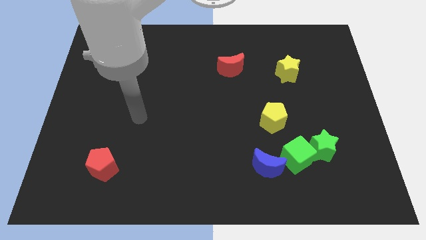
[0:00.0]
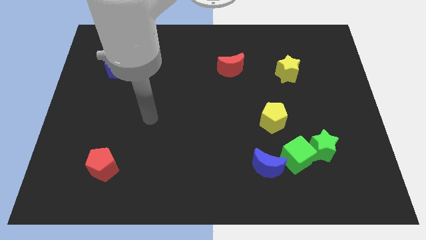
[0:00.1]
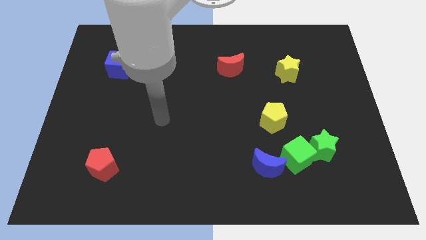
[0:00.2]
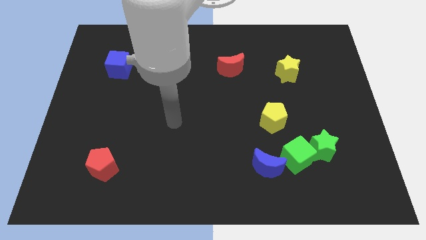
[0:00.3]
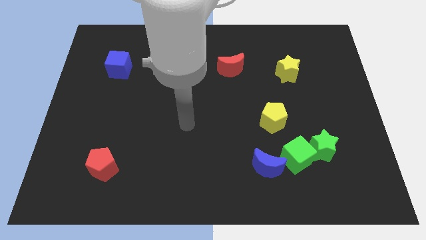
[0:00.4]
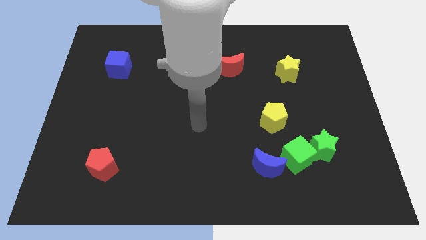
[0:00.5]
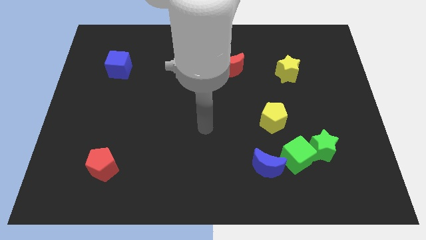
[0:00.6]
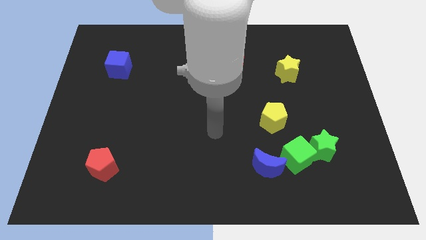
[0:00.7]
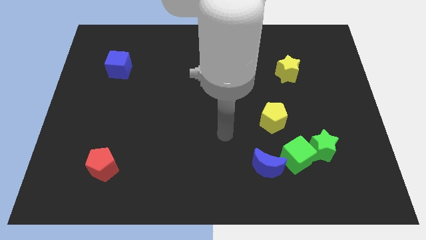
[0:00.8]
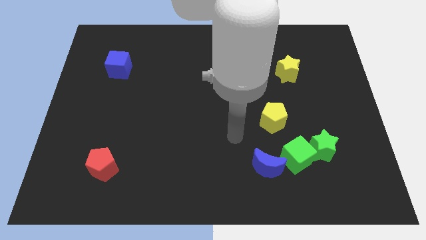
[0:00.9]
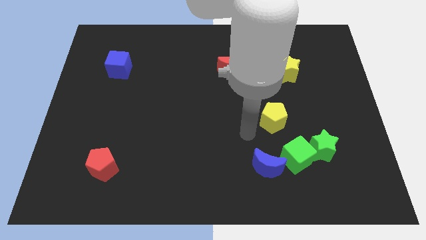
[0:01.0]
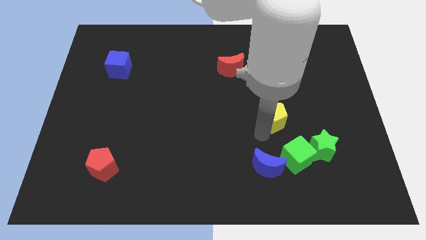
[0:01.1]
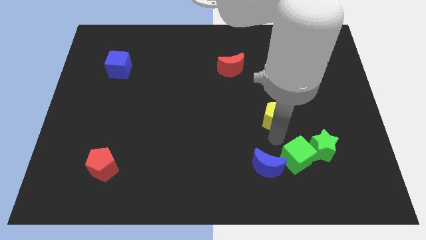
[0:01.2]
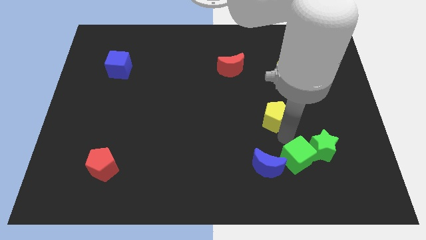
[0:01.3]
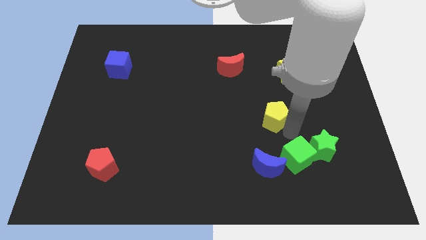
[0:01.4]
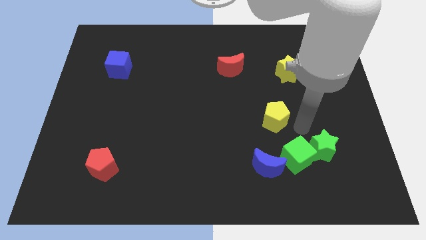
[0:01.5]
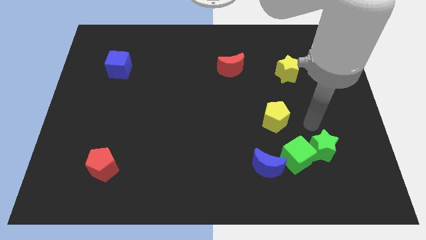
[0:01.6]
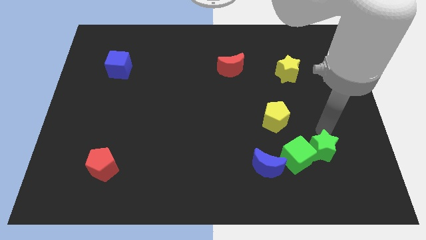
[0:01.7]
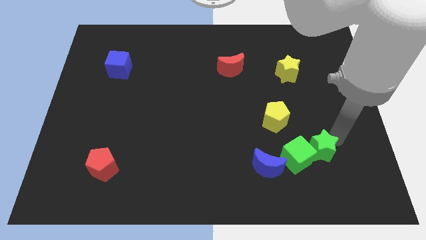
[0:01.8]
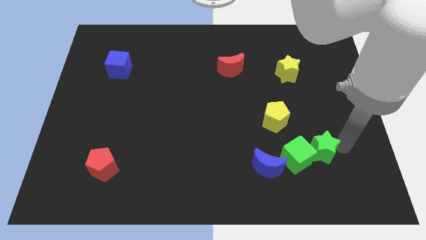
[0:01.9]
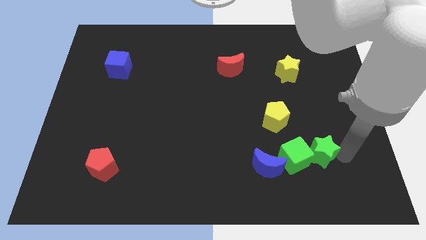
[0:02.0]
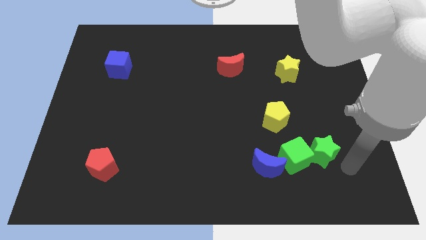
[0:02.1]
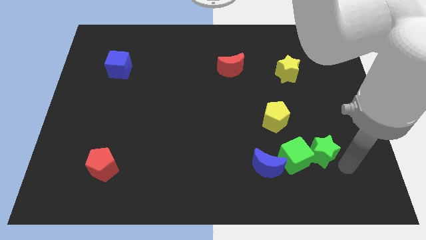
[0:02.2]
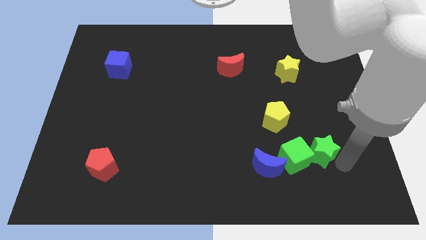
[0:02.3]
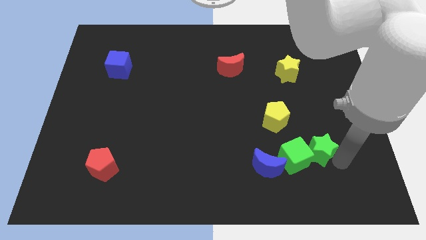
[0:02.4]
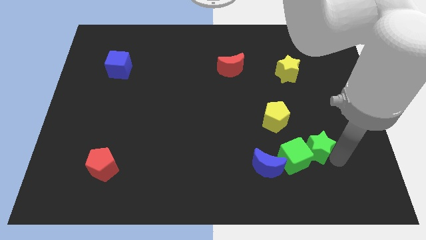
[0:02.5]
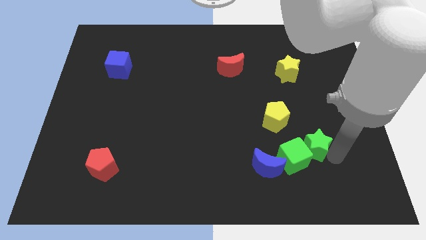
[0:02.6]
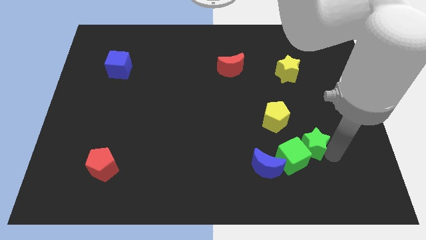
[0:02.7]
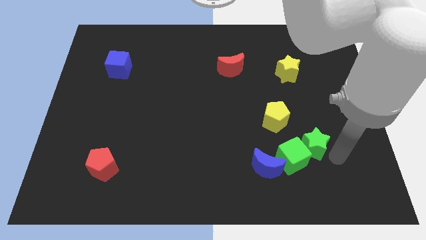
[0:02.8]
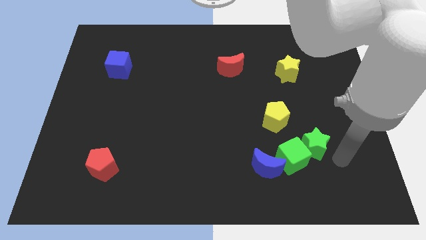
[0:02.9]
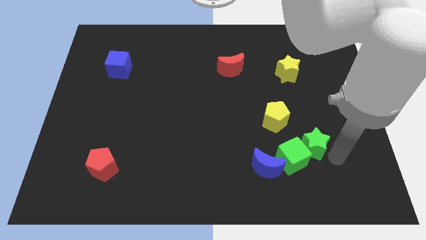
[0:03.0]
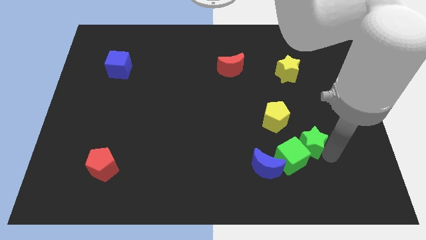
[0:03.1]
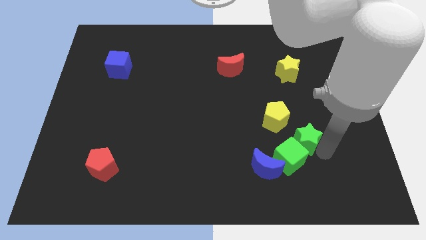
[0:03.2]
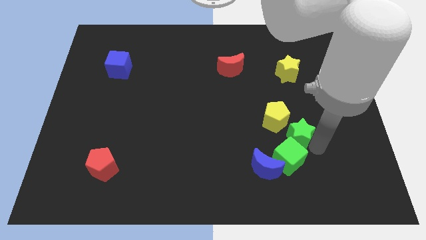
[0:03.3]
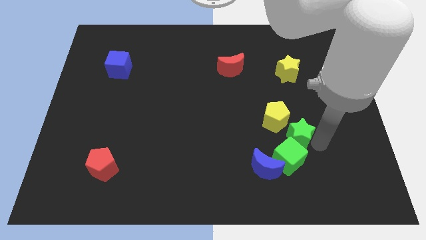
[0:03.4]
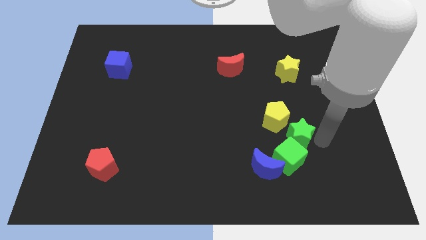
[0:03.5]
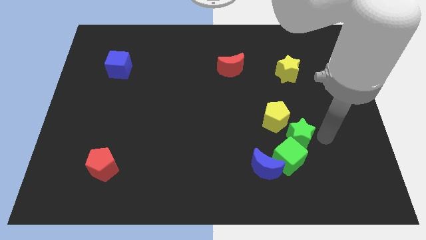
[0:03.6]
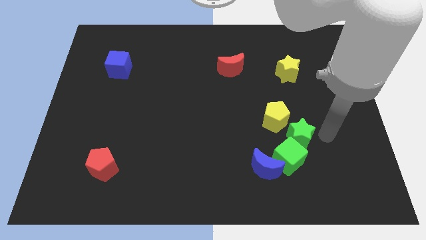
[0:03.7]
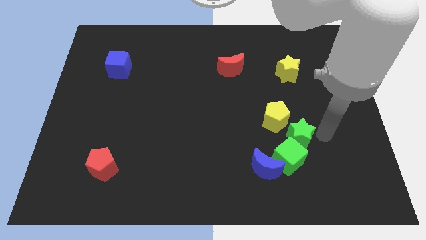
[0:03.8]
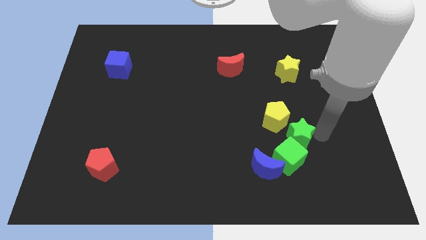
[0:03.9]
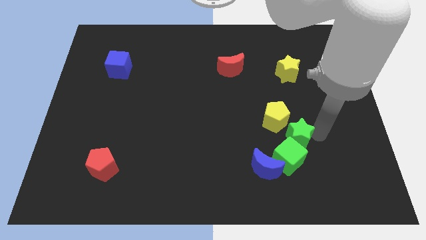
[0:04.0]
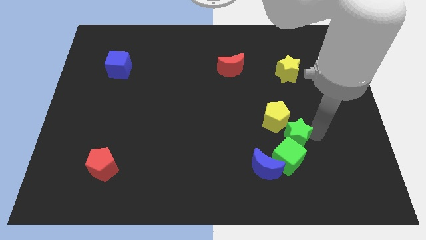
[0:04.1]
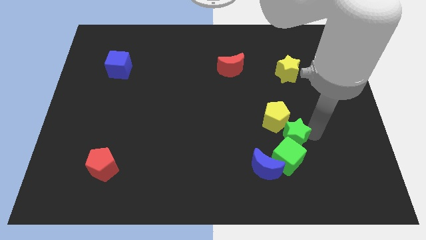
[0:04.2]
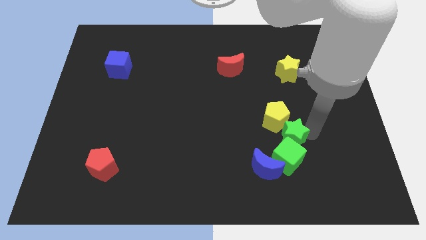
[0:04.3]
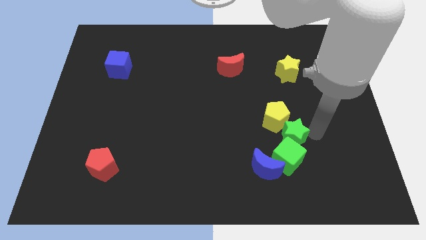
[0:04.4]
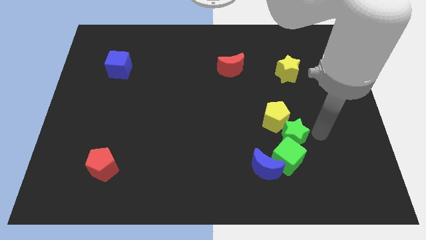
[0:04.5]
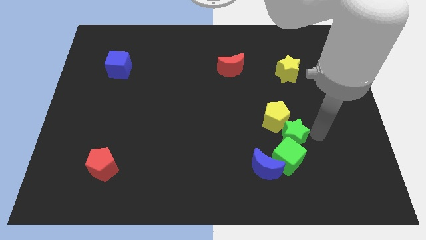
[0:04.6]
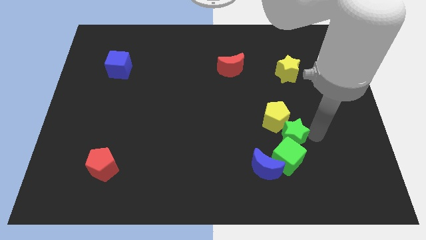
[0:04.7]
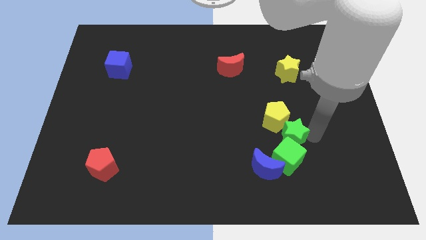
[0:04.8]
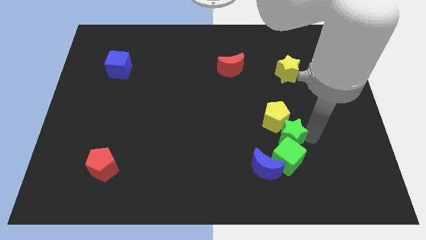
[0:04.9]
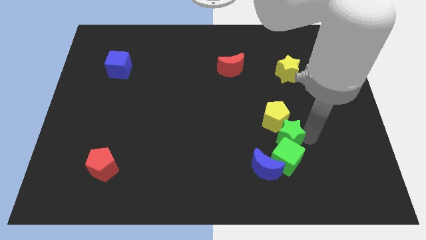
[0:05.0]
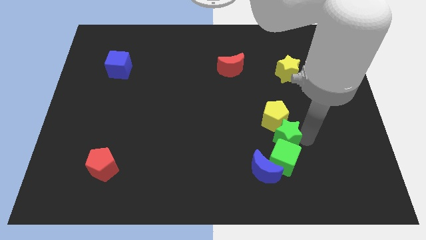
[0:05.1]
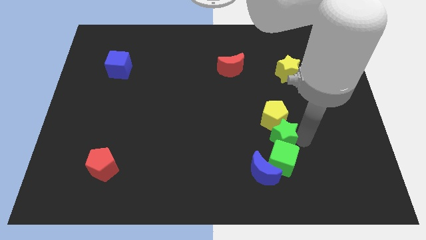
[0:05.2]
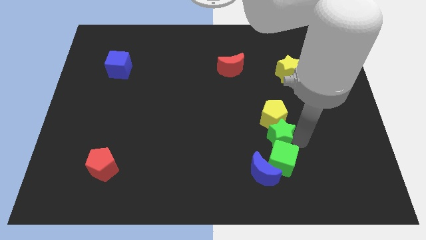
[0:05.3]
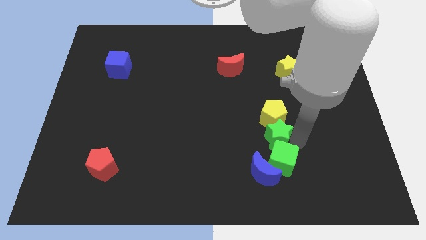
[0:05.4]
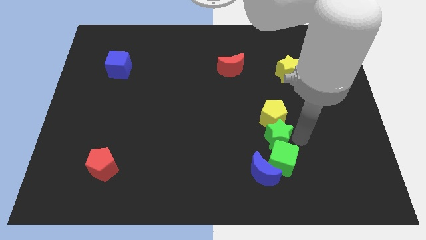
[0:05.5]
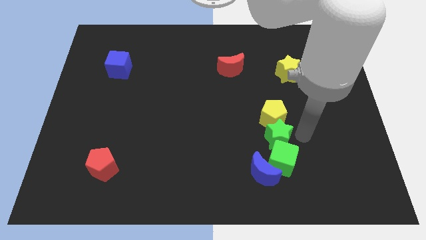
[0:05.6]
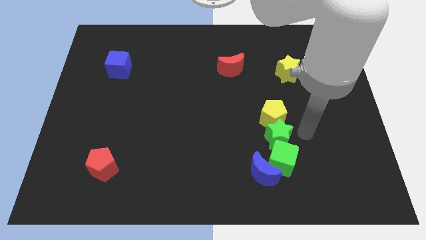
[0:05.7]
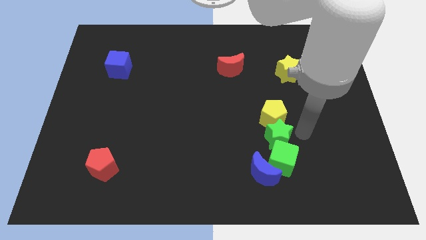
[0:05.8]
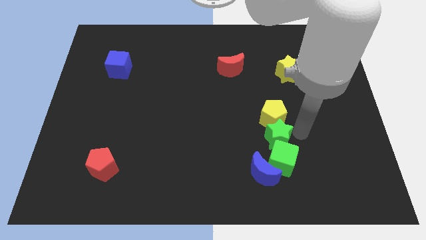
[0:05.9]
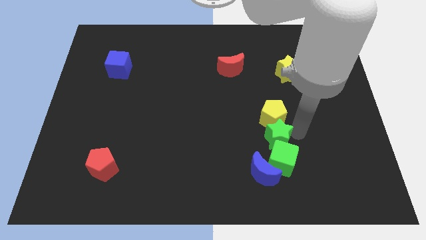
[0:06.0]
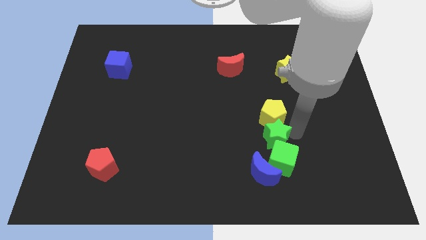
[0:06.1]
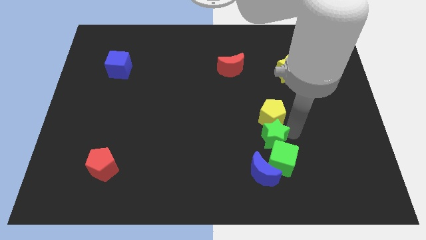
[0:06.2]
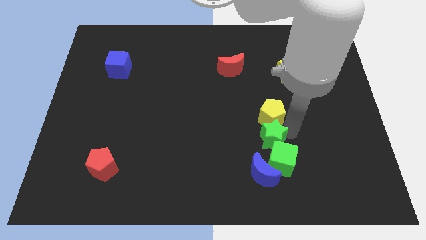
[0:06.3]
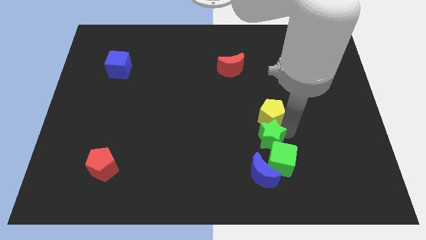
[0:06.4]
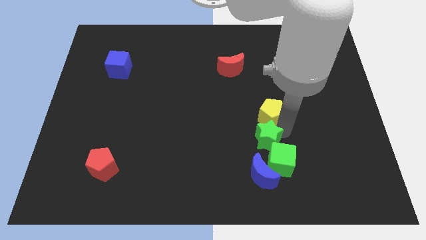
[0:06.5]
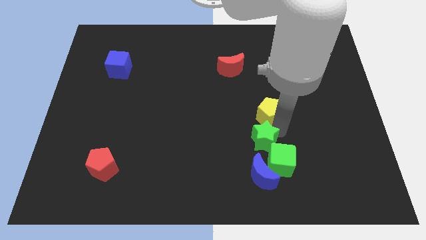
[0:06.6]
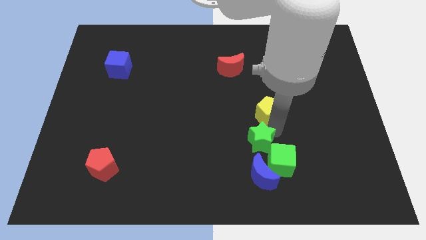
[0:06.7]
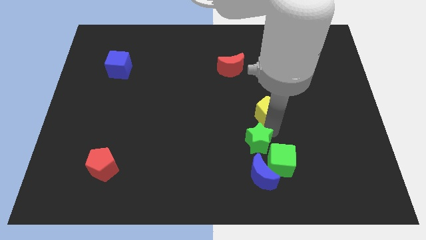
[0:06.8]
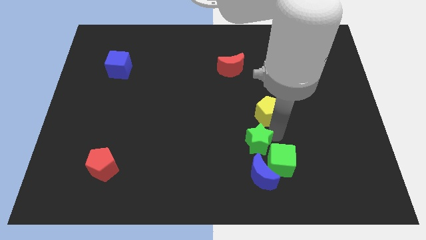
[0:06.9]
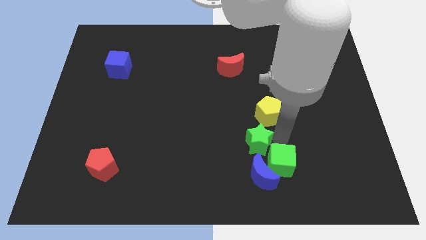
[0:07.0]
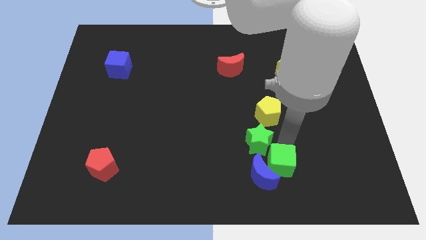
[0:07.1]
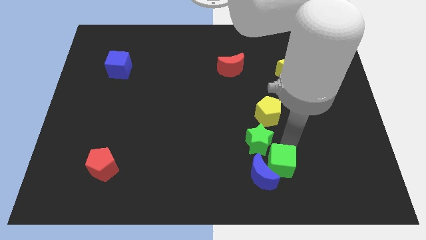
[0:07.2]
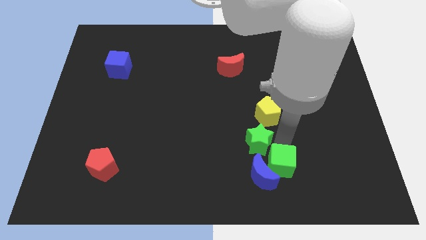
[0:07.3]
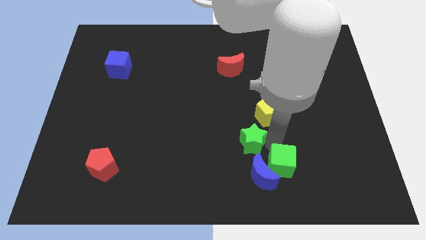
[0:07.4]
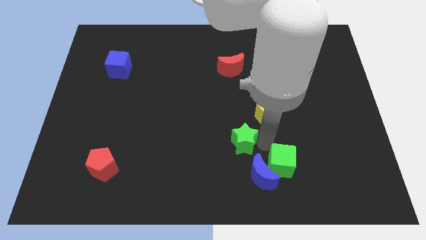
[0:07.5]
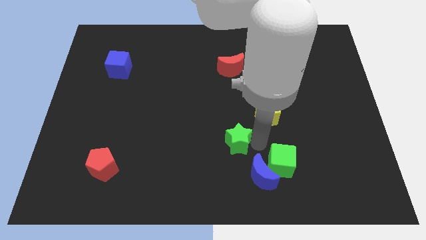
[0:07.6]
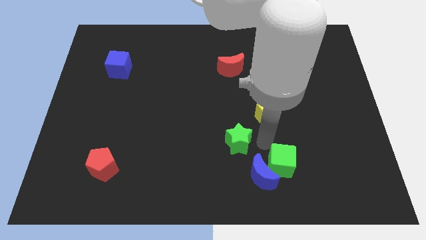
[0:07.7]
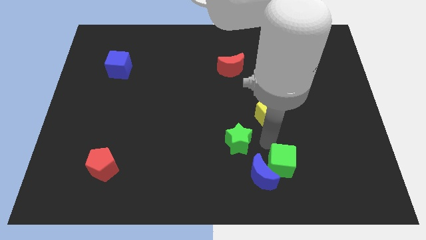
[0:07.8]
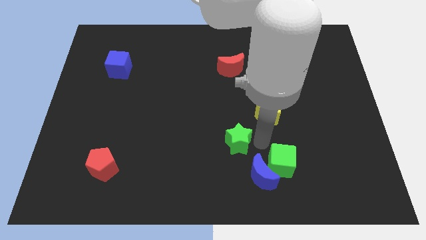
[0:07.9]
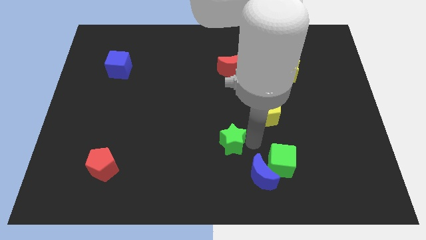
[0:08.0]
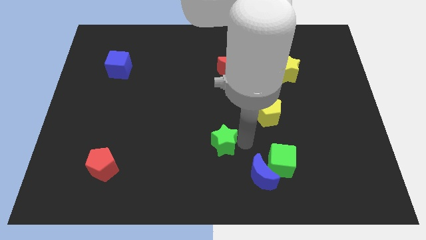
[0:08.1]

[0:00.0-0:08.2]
push the green star left
